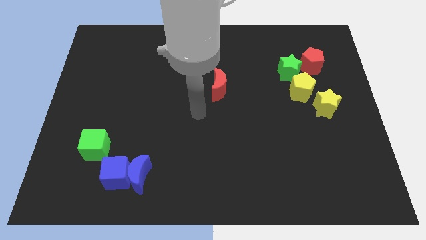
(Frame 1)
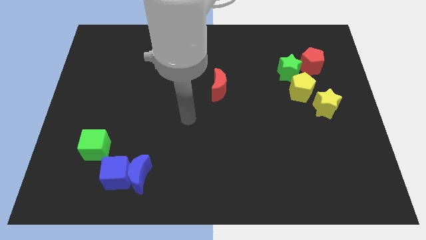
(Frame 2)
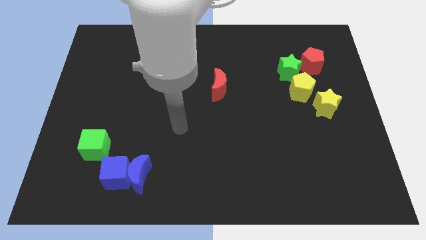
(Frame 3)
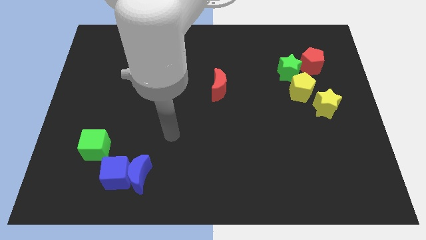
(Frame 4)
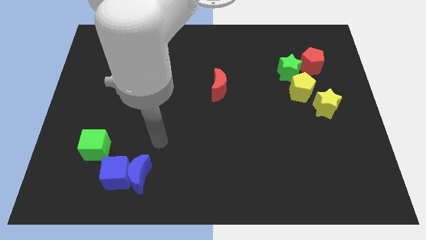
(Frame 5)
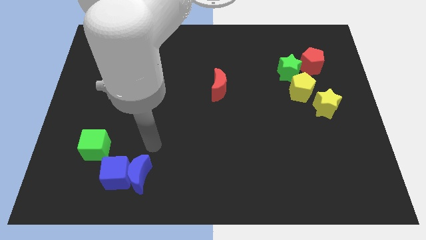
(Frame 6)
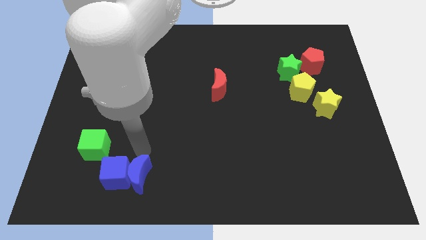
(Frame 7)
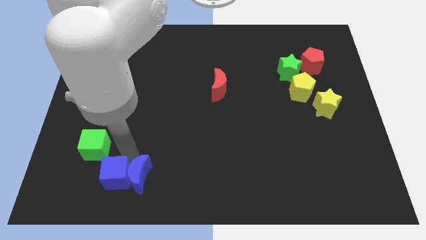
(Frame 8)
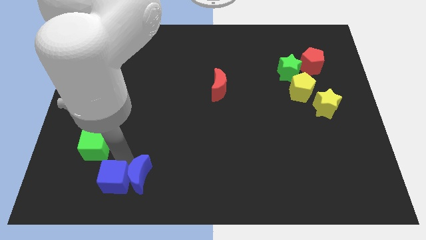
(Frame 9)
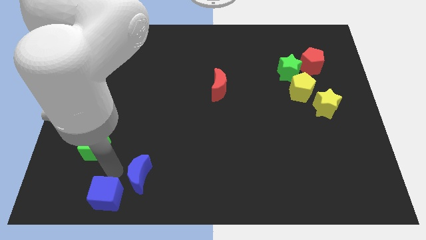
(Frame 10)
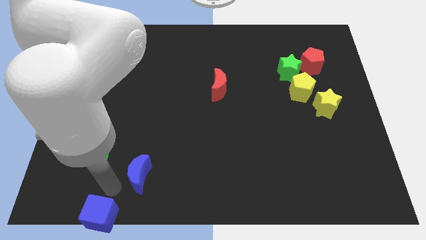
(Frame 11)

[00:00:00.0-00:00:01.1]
separate the blue moon from the blue cube

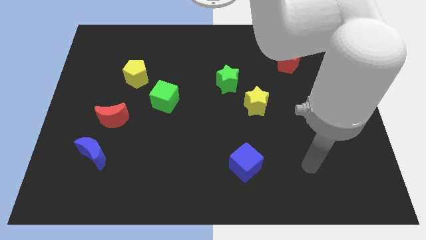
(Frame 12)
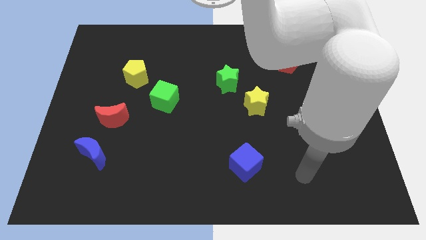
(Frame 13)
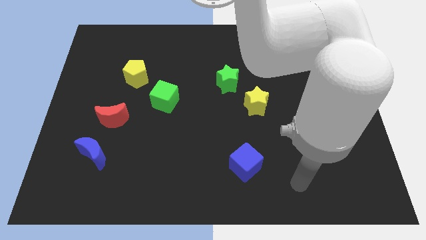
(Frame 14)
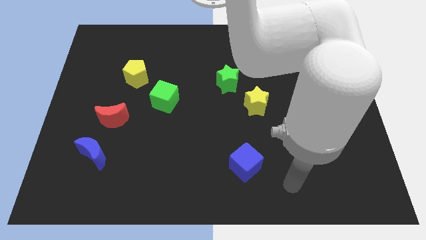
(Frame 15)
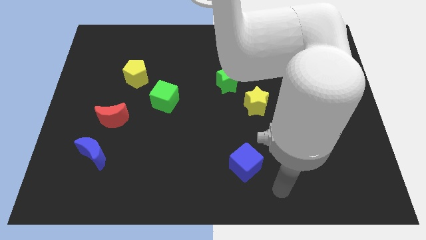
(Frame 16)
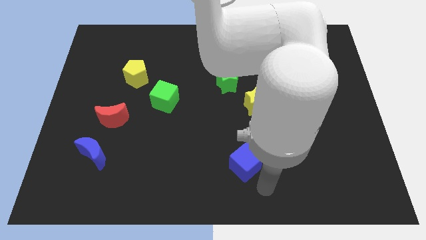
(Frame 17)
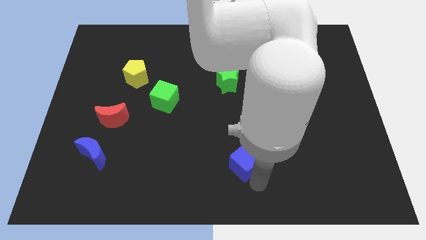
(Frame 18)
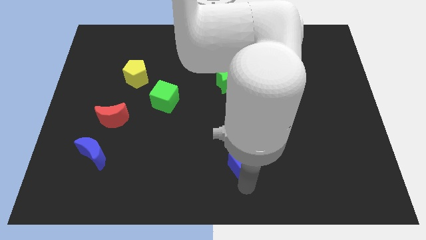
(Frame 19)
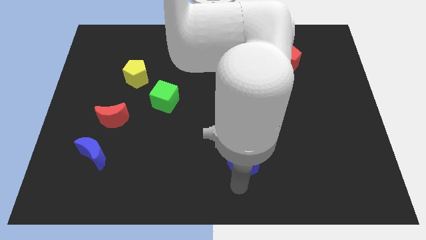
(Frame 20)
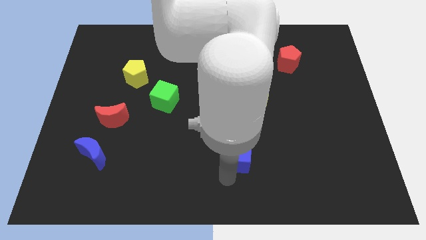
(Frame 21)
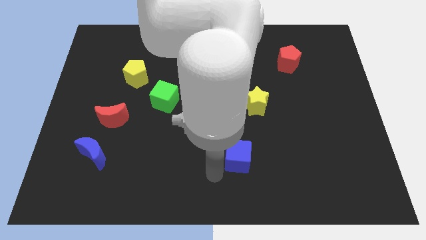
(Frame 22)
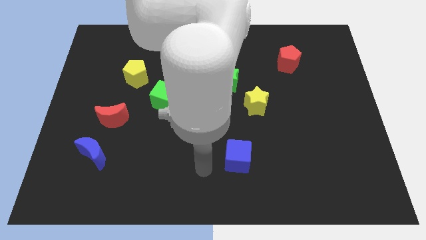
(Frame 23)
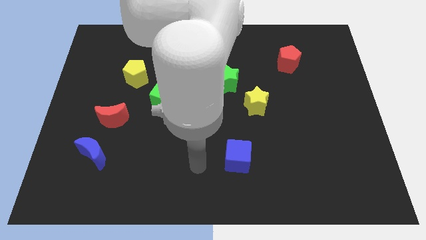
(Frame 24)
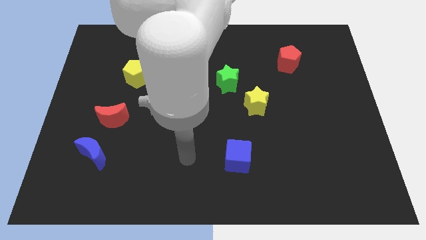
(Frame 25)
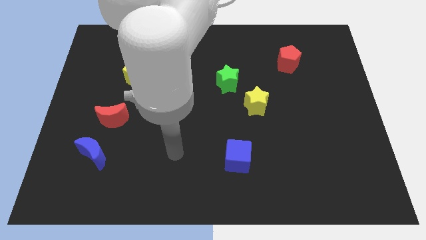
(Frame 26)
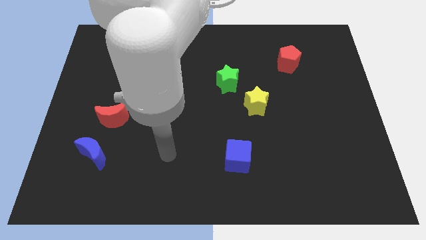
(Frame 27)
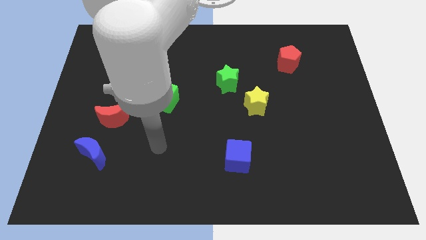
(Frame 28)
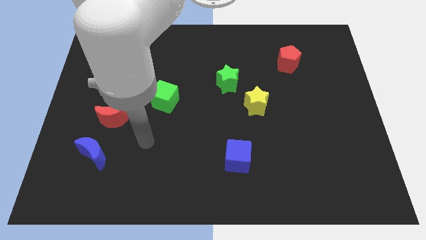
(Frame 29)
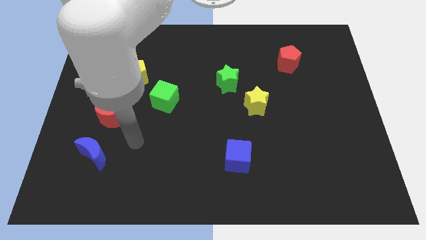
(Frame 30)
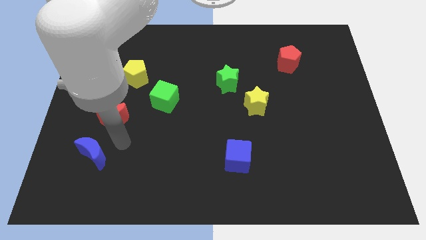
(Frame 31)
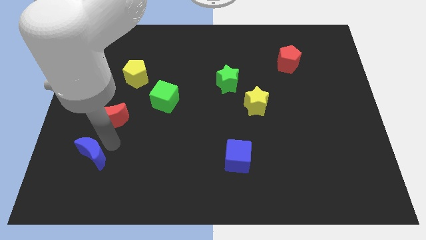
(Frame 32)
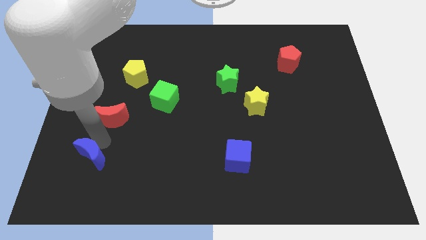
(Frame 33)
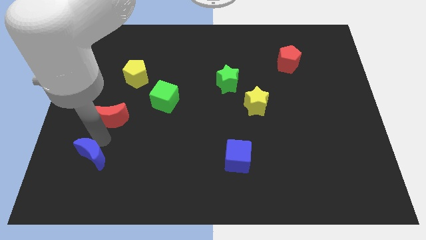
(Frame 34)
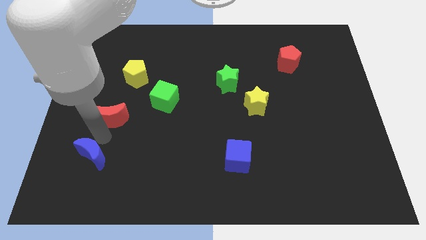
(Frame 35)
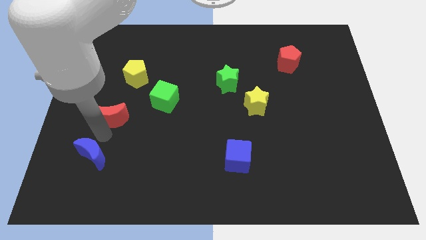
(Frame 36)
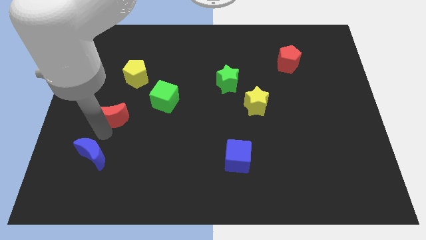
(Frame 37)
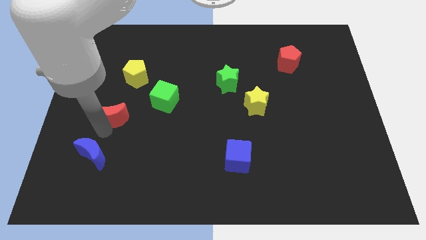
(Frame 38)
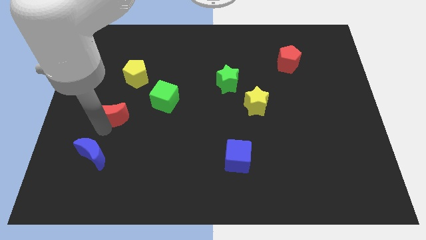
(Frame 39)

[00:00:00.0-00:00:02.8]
separate the red moon from the blue moon

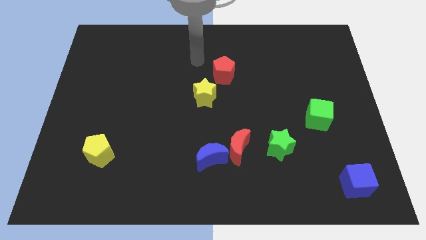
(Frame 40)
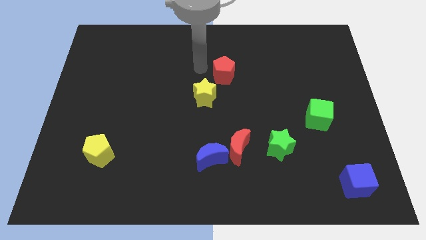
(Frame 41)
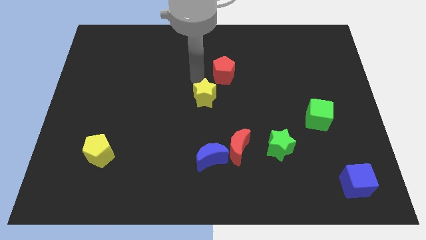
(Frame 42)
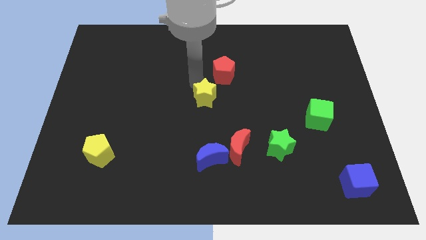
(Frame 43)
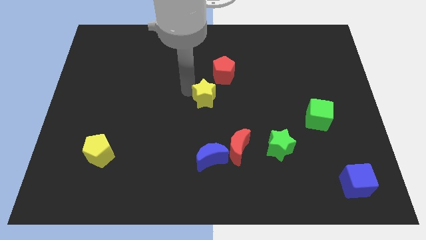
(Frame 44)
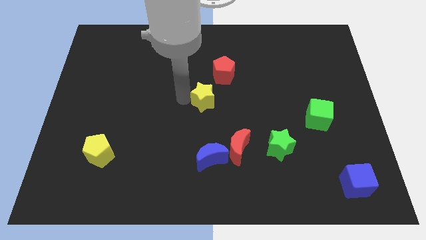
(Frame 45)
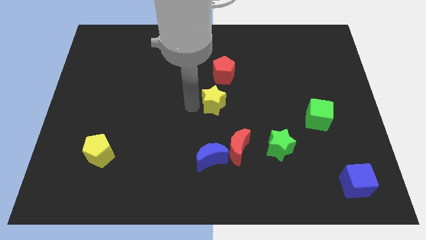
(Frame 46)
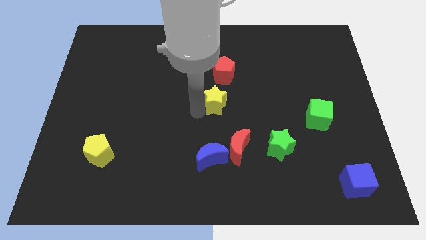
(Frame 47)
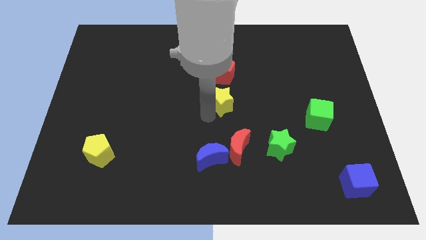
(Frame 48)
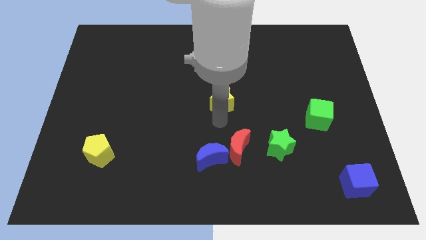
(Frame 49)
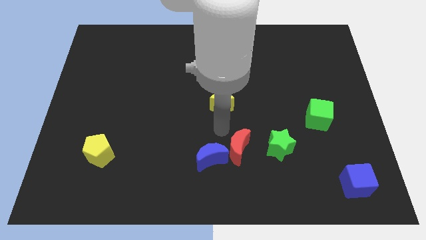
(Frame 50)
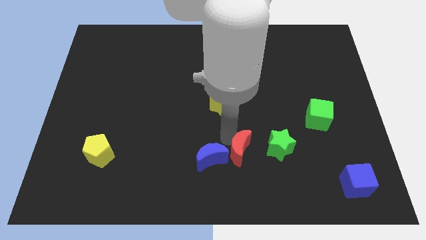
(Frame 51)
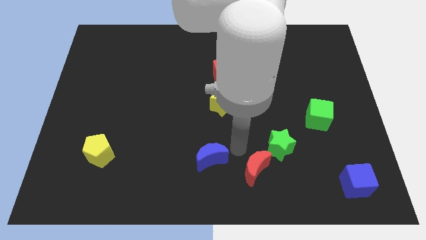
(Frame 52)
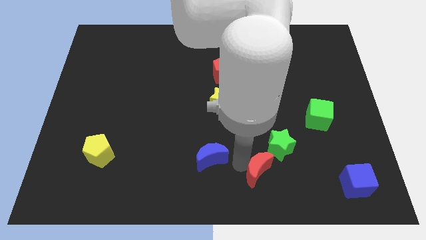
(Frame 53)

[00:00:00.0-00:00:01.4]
separate the blue moon from the red moon

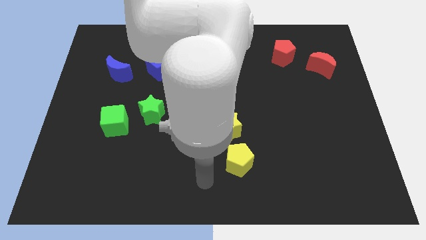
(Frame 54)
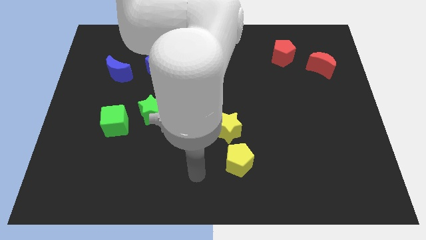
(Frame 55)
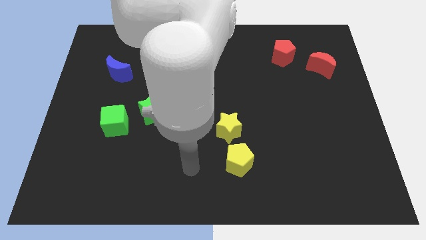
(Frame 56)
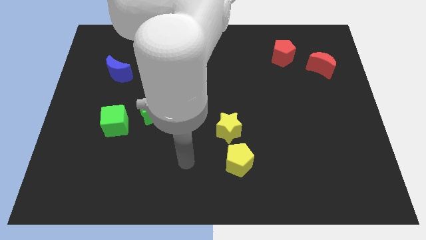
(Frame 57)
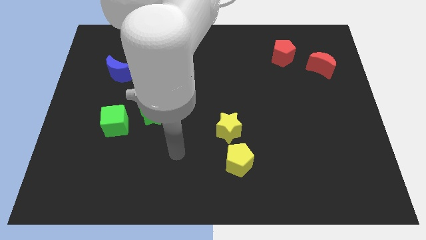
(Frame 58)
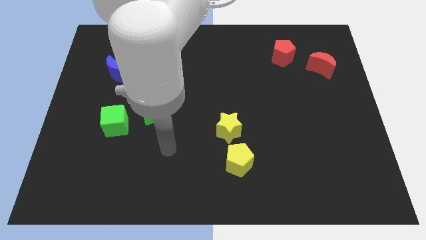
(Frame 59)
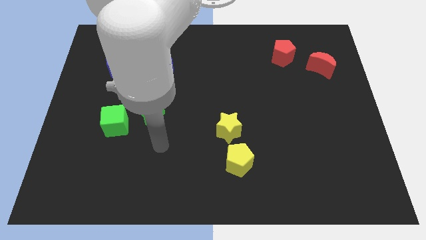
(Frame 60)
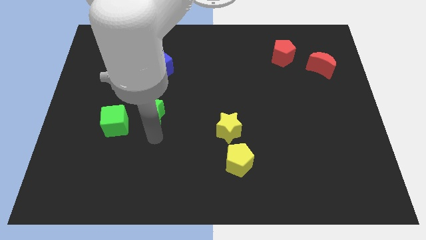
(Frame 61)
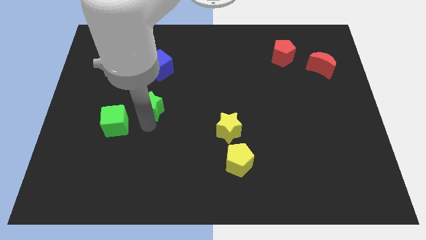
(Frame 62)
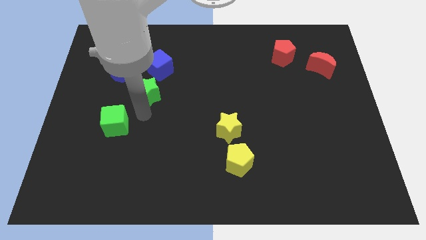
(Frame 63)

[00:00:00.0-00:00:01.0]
pull the green cube apart from the green star

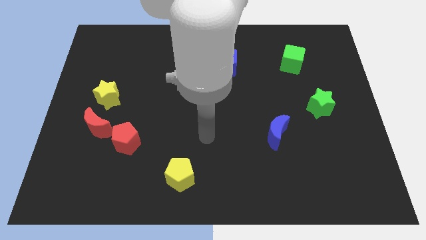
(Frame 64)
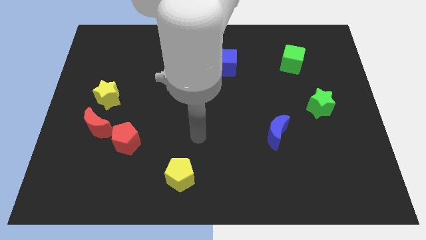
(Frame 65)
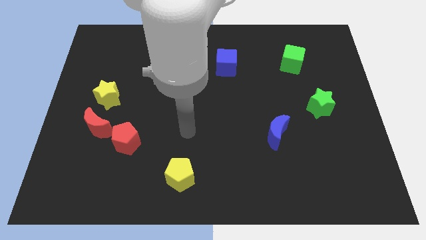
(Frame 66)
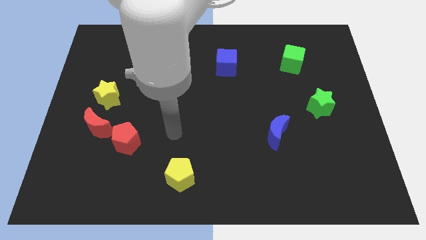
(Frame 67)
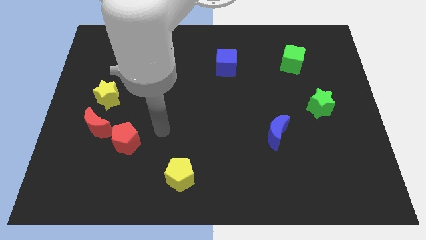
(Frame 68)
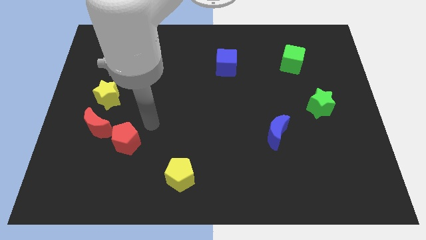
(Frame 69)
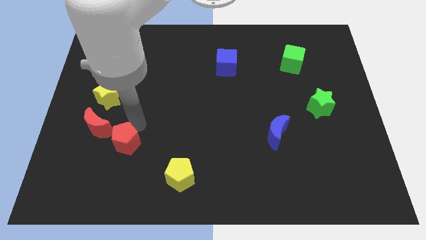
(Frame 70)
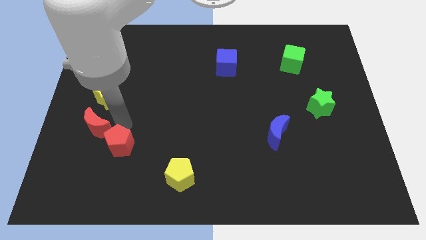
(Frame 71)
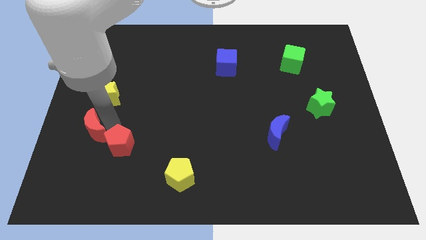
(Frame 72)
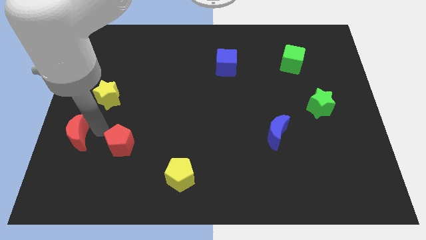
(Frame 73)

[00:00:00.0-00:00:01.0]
separate the red pentagon from the red moon

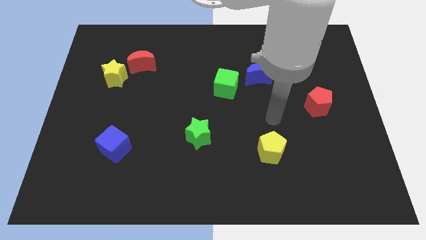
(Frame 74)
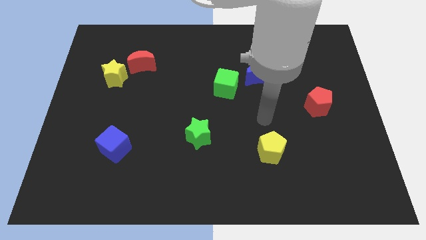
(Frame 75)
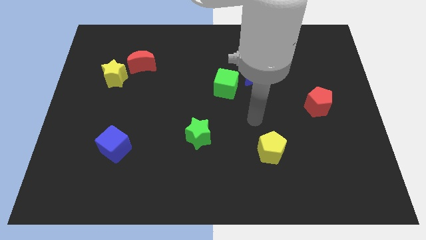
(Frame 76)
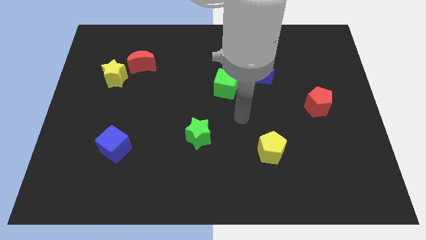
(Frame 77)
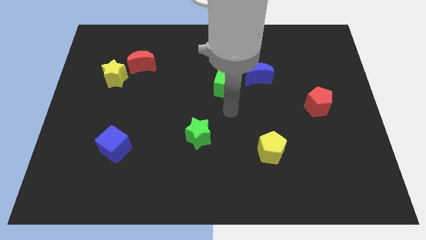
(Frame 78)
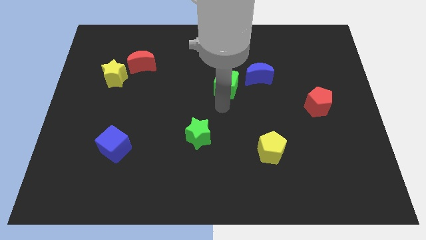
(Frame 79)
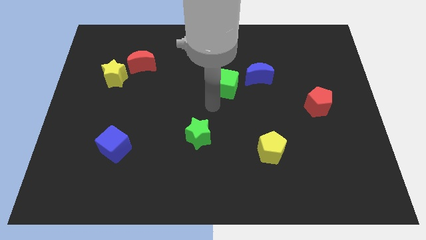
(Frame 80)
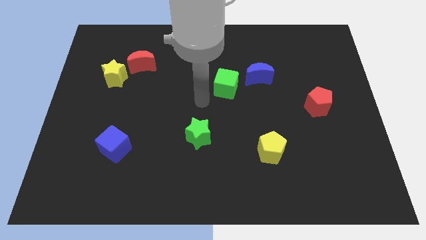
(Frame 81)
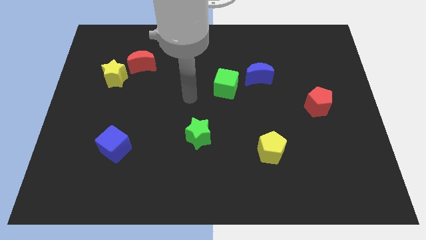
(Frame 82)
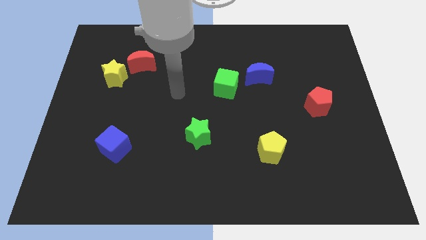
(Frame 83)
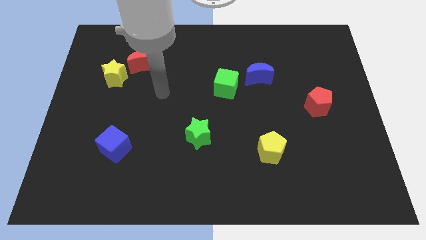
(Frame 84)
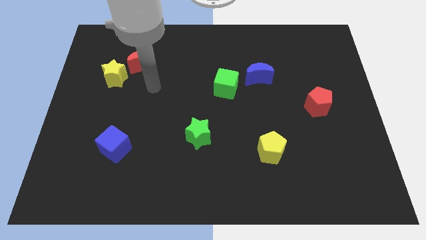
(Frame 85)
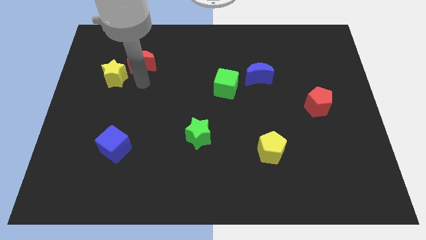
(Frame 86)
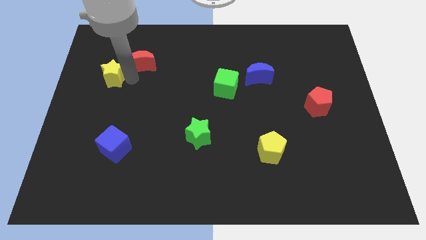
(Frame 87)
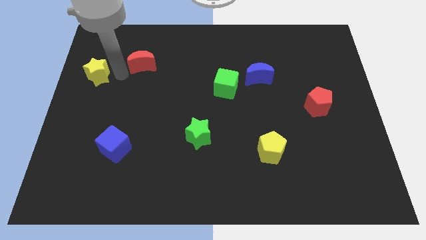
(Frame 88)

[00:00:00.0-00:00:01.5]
move the red moon away from the yellow star

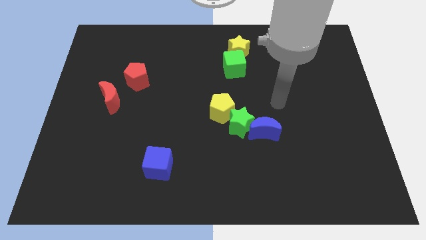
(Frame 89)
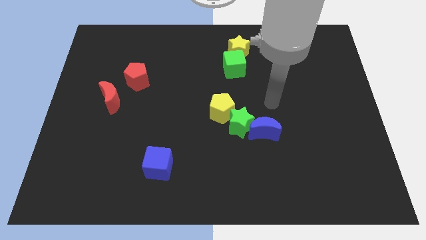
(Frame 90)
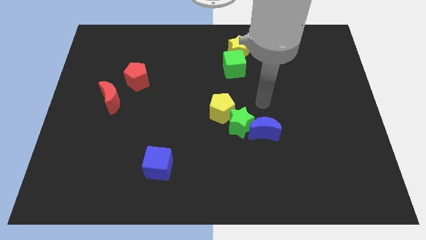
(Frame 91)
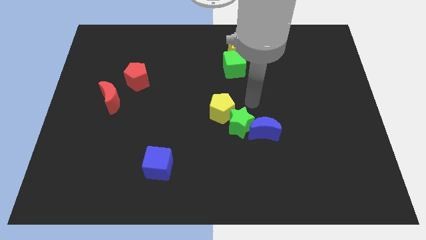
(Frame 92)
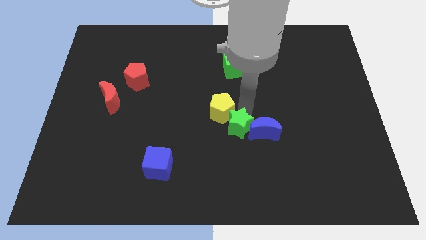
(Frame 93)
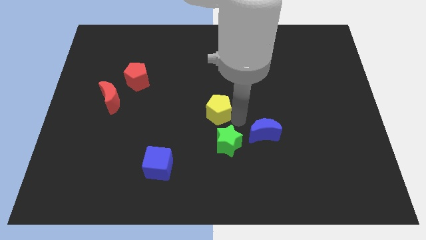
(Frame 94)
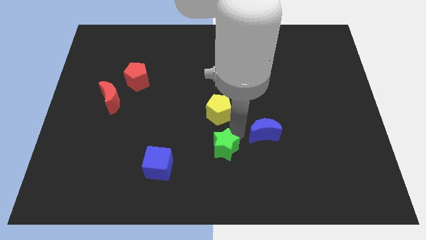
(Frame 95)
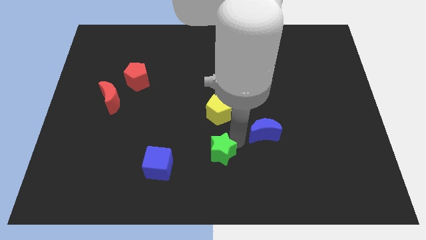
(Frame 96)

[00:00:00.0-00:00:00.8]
pull the blue moon apart from the green star
